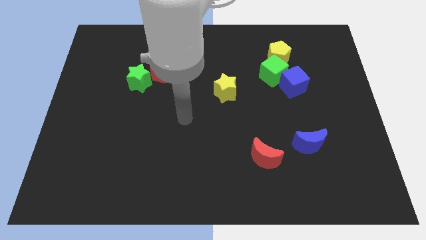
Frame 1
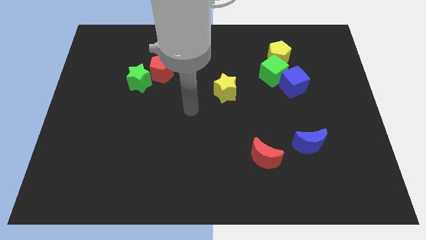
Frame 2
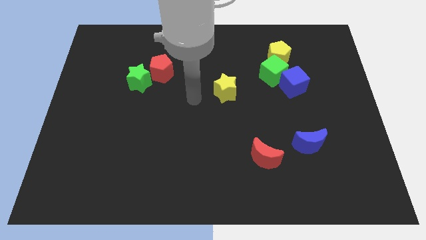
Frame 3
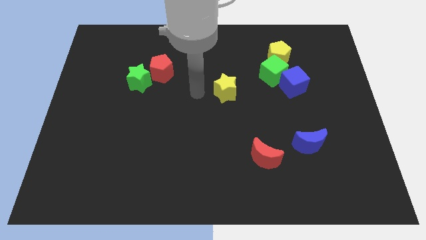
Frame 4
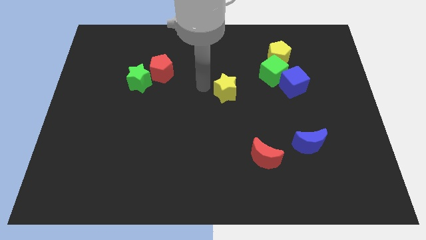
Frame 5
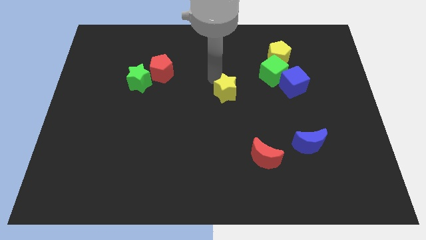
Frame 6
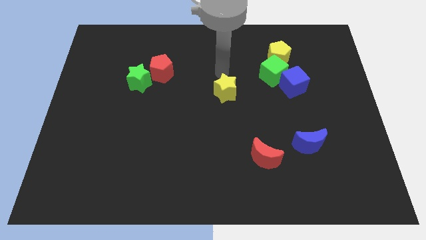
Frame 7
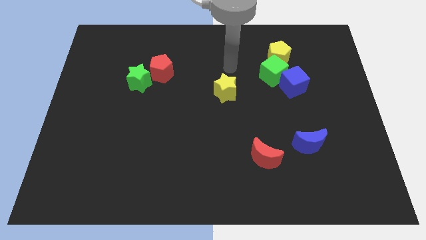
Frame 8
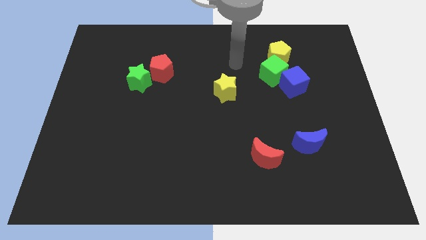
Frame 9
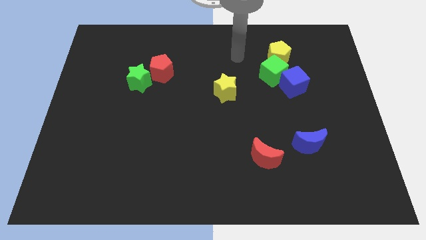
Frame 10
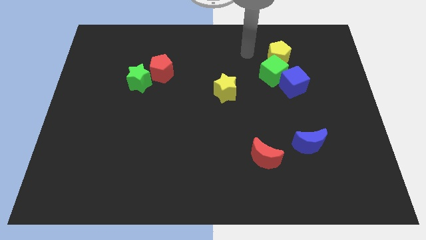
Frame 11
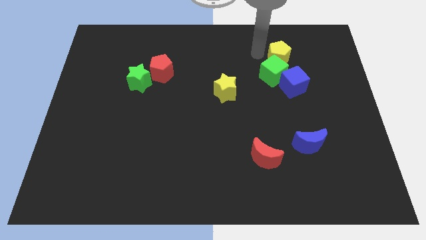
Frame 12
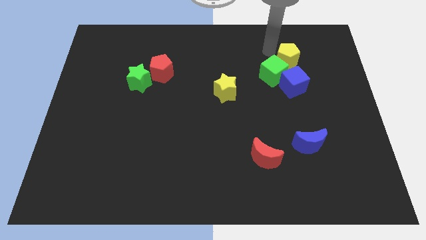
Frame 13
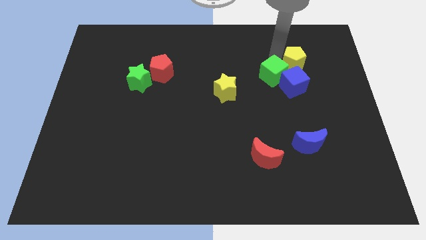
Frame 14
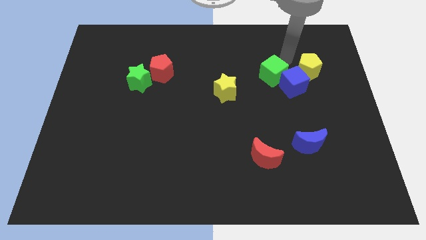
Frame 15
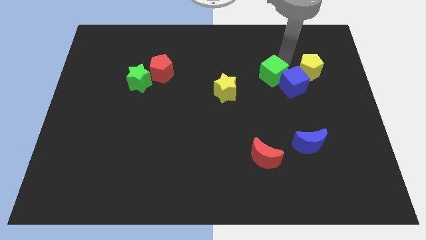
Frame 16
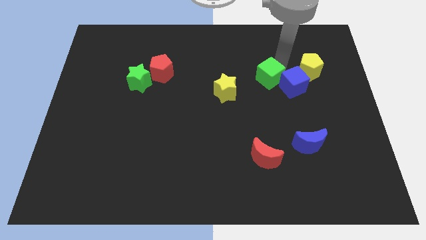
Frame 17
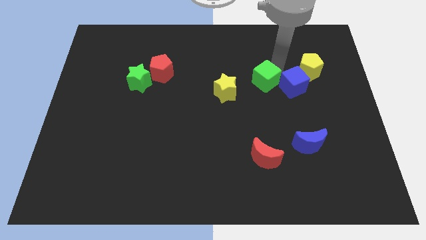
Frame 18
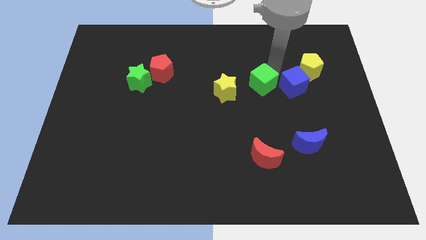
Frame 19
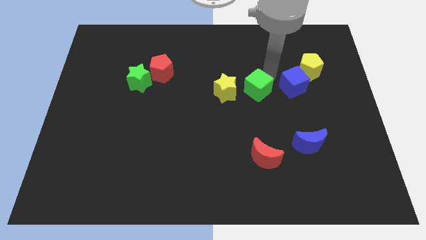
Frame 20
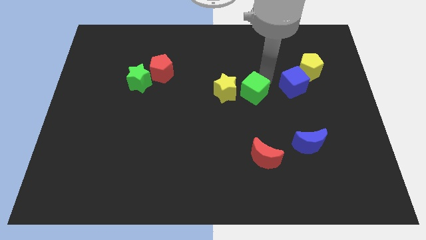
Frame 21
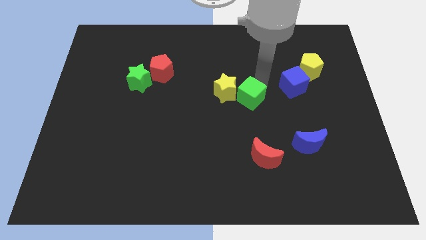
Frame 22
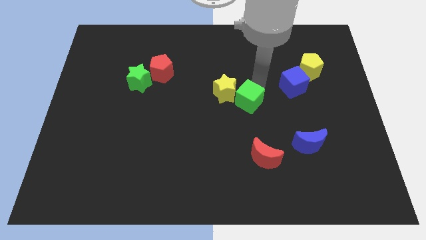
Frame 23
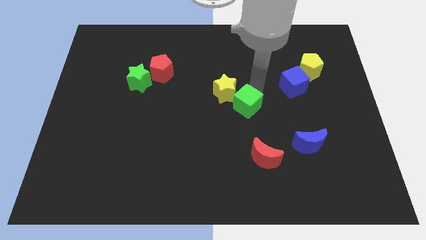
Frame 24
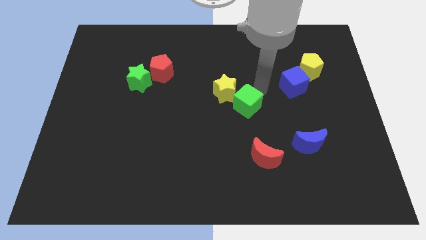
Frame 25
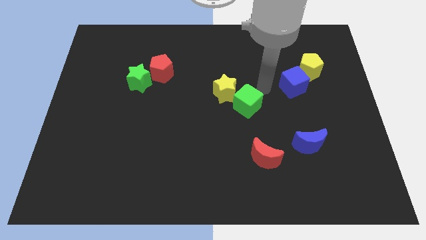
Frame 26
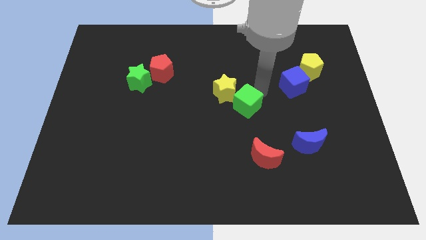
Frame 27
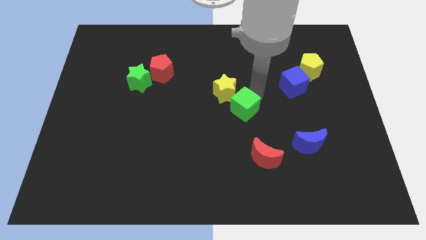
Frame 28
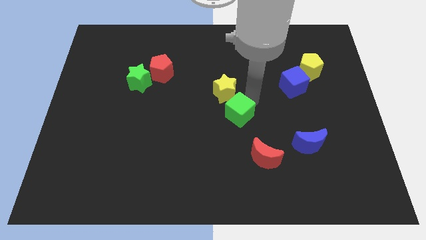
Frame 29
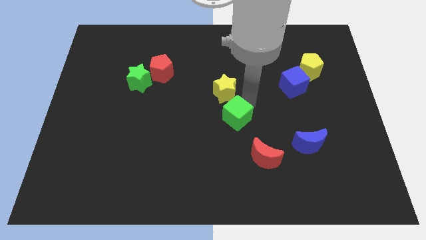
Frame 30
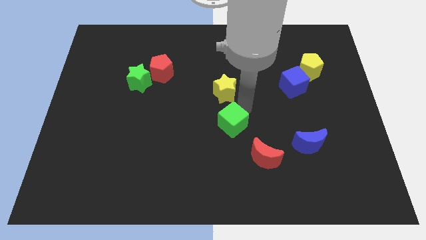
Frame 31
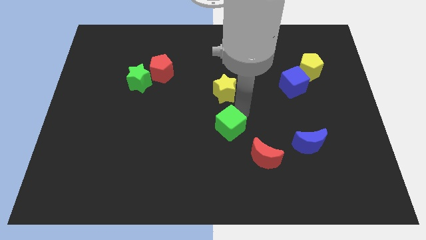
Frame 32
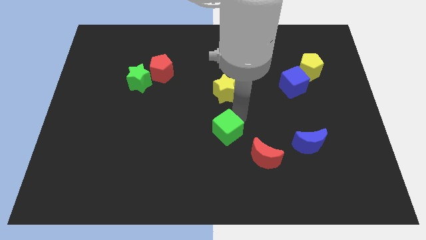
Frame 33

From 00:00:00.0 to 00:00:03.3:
slide the green cube down and to the left

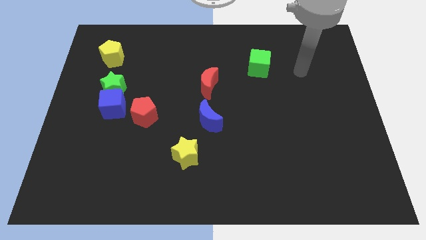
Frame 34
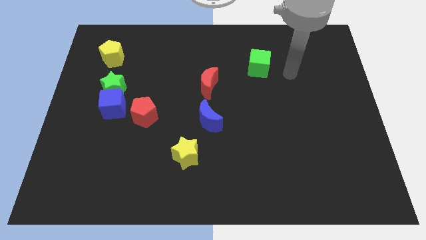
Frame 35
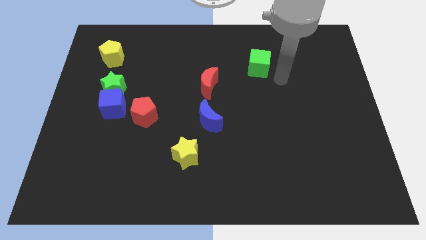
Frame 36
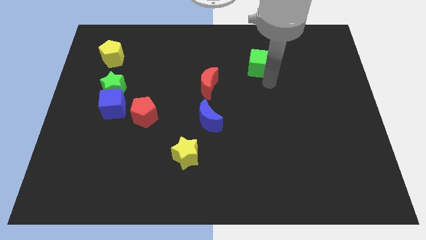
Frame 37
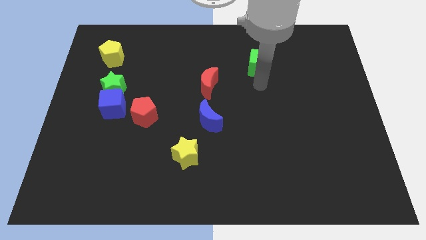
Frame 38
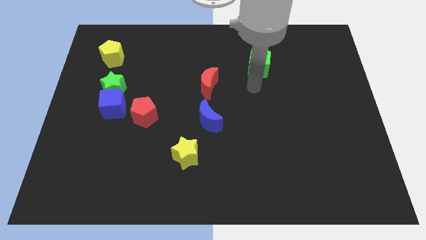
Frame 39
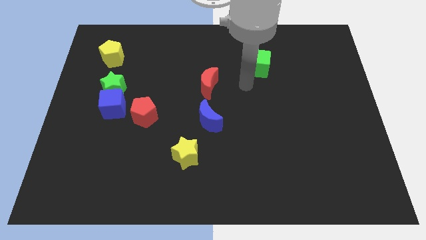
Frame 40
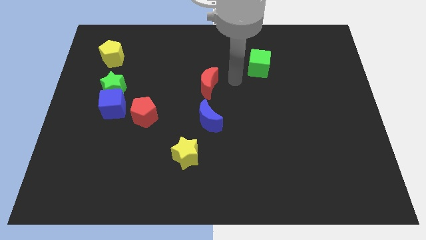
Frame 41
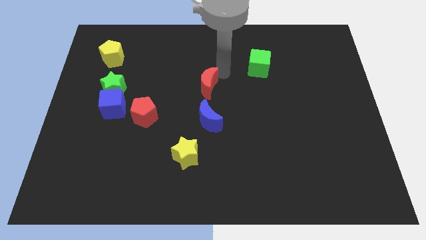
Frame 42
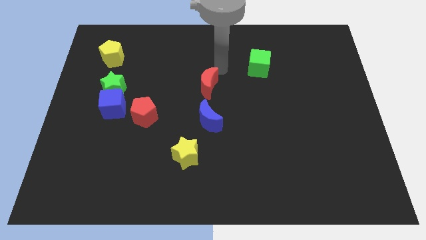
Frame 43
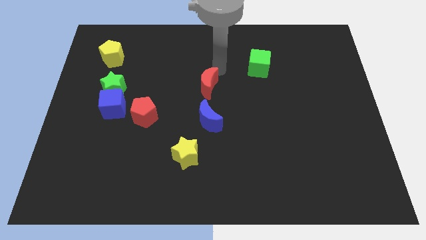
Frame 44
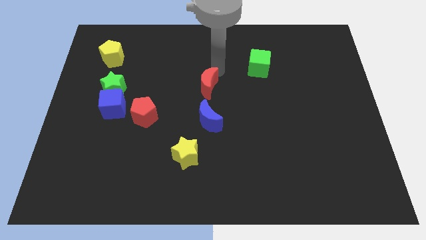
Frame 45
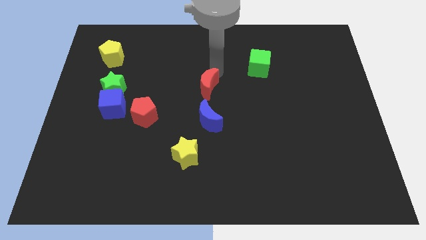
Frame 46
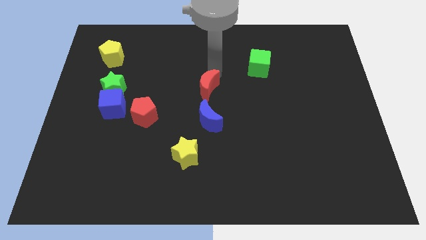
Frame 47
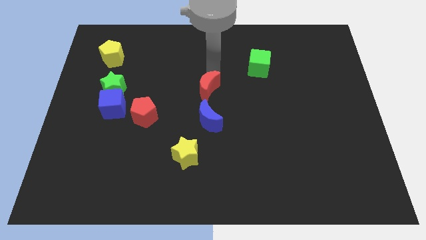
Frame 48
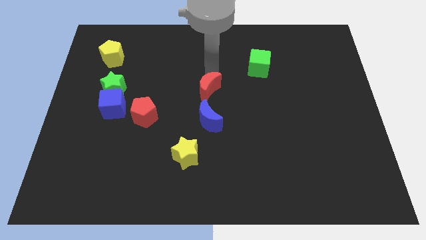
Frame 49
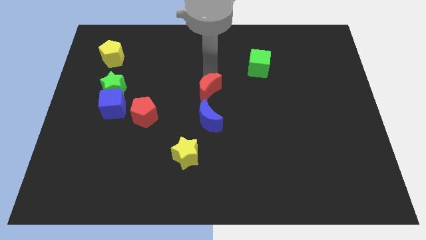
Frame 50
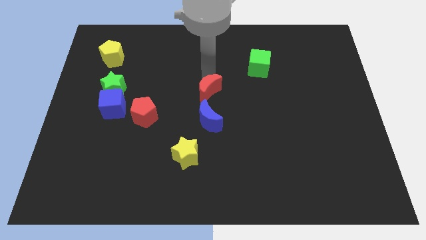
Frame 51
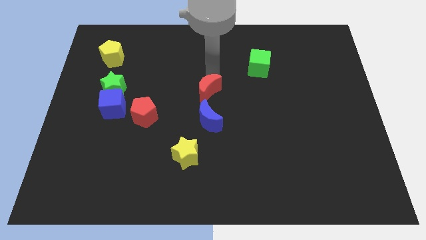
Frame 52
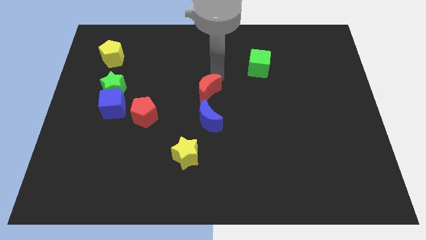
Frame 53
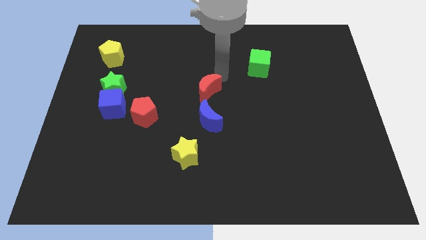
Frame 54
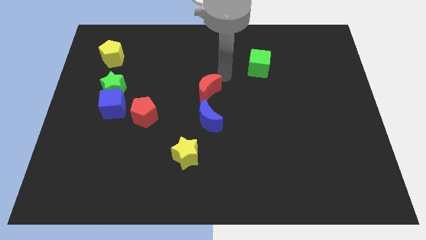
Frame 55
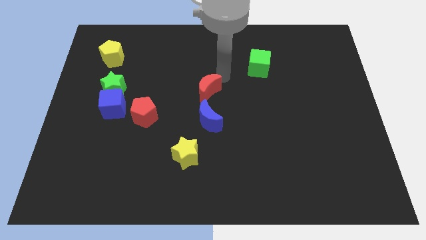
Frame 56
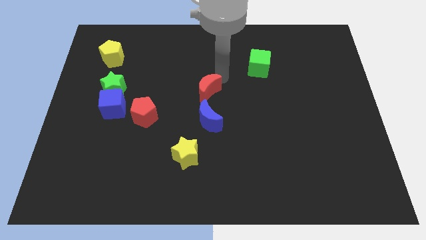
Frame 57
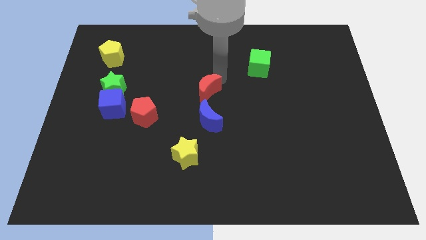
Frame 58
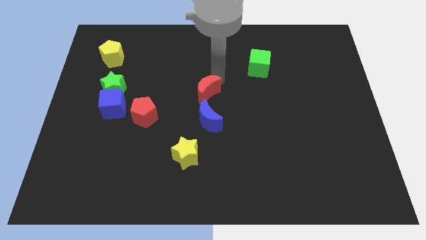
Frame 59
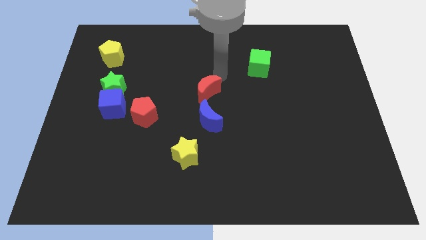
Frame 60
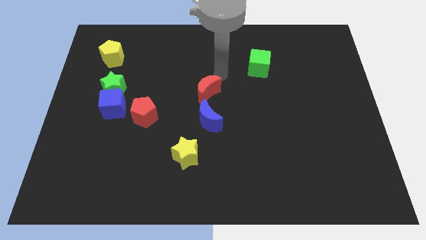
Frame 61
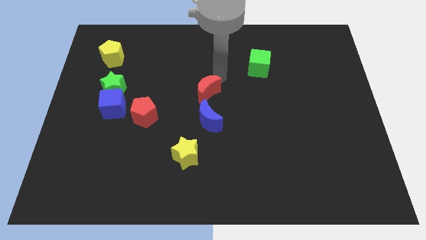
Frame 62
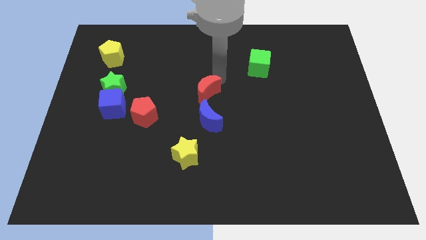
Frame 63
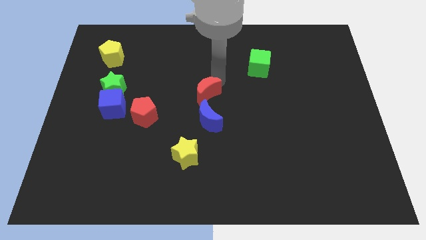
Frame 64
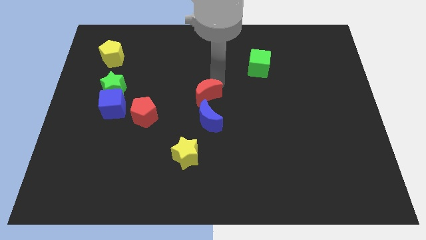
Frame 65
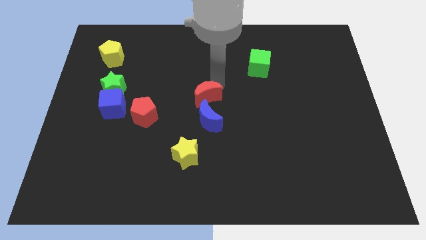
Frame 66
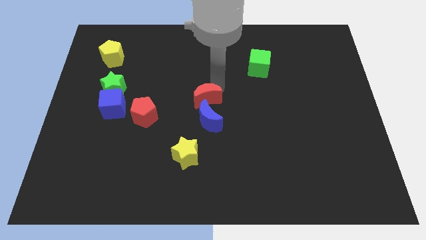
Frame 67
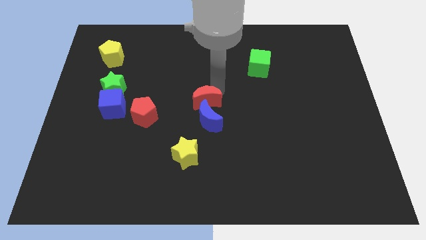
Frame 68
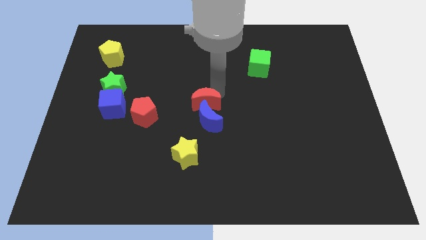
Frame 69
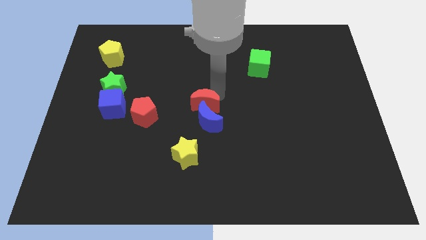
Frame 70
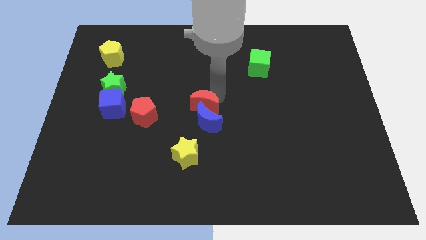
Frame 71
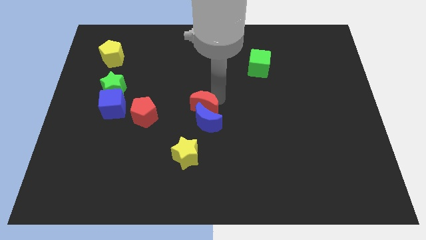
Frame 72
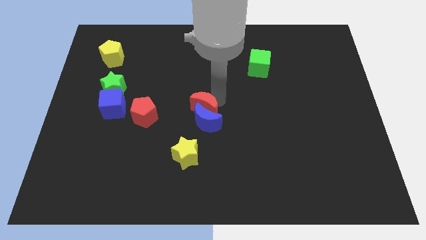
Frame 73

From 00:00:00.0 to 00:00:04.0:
move the red moon somewhat downwards
